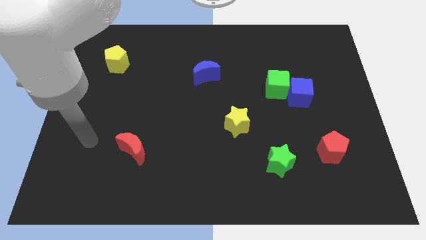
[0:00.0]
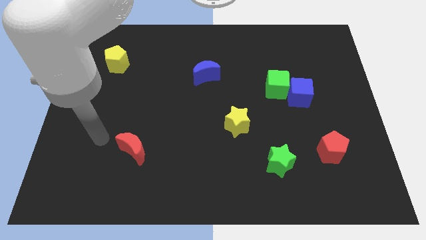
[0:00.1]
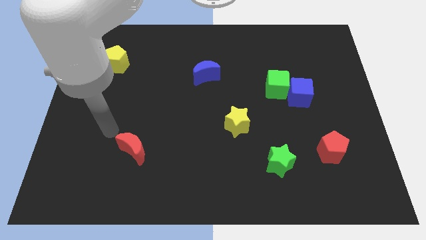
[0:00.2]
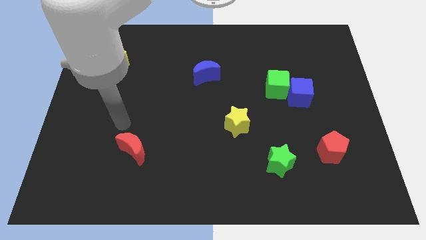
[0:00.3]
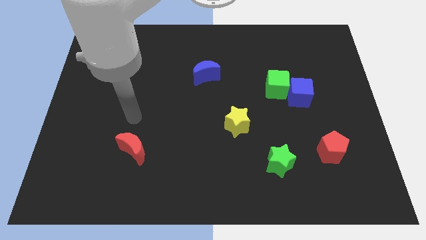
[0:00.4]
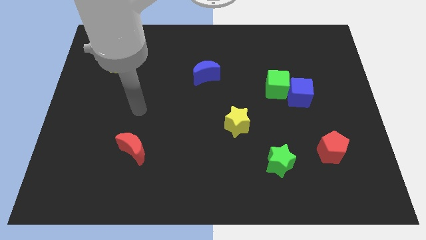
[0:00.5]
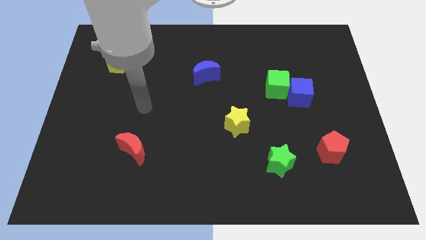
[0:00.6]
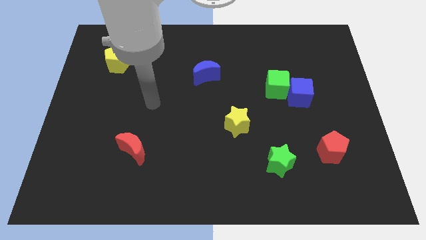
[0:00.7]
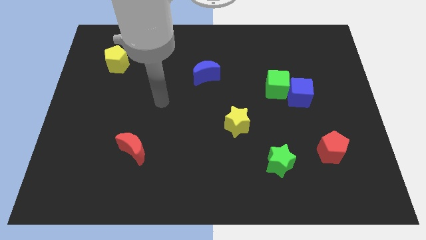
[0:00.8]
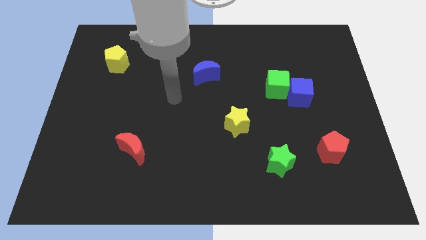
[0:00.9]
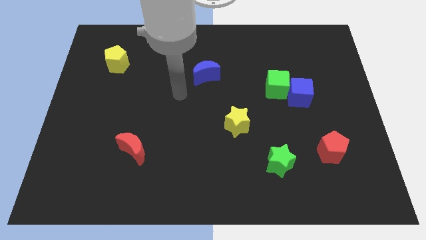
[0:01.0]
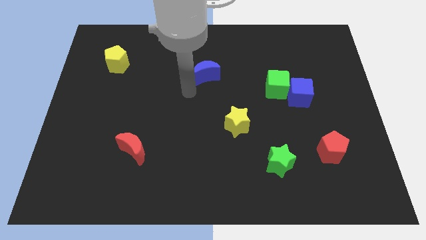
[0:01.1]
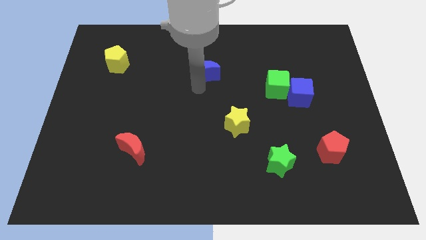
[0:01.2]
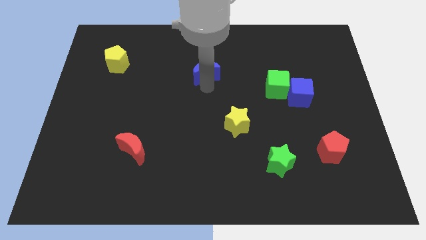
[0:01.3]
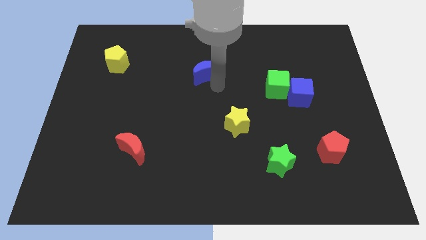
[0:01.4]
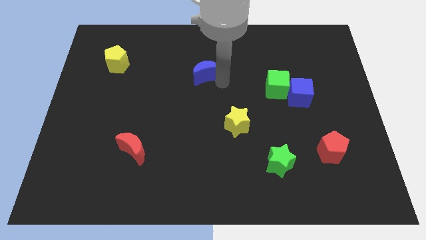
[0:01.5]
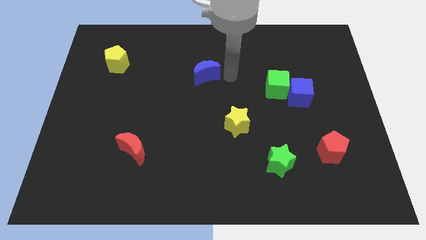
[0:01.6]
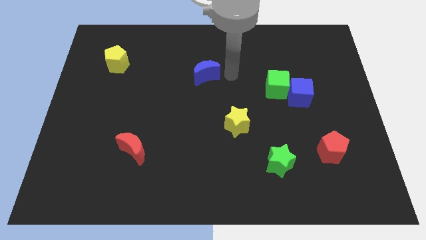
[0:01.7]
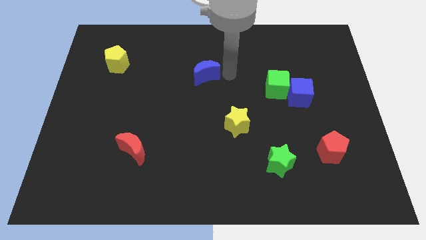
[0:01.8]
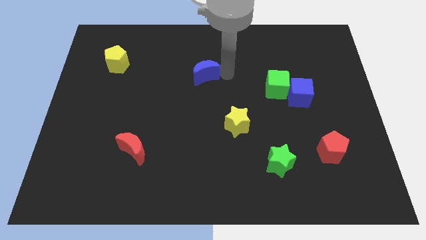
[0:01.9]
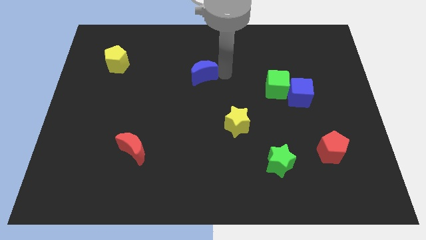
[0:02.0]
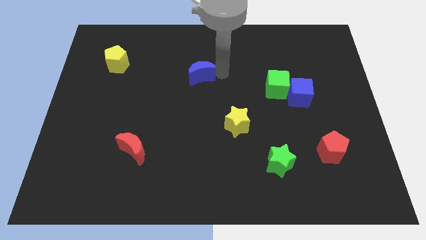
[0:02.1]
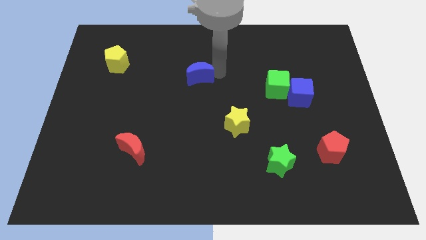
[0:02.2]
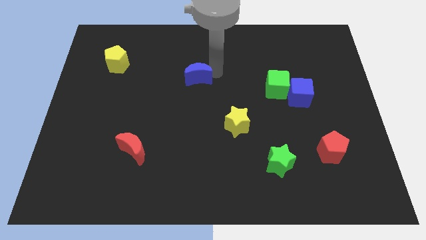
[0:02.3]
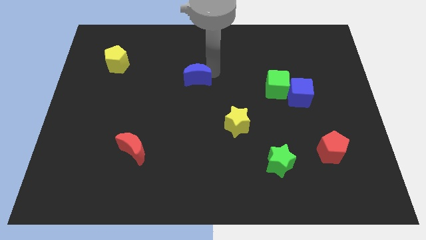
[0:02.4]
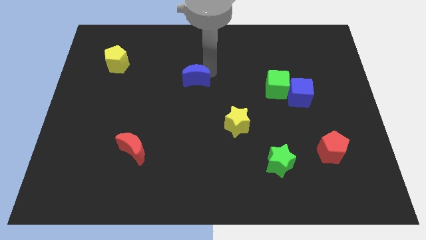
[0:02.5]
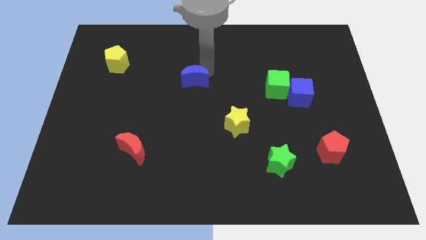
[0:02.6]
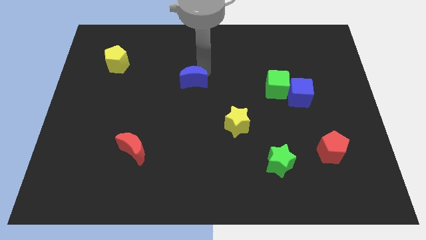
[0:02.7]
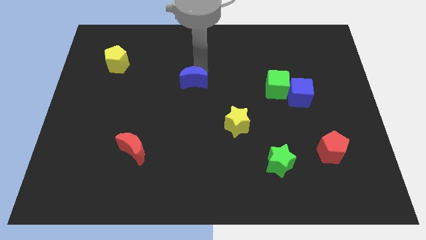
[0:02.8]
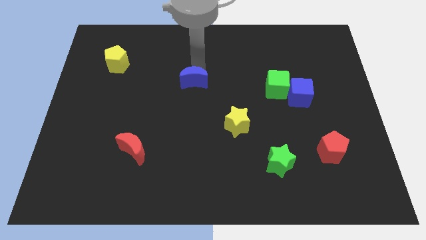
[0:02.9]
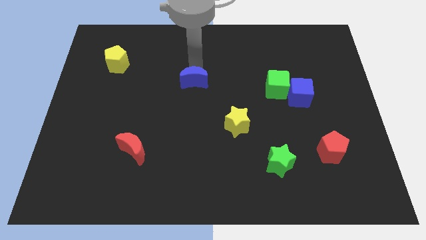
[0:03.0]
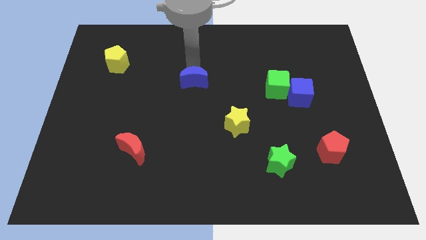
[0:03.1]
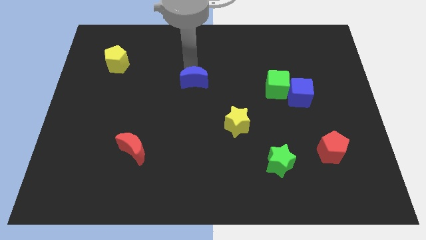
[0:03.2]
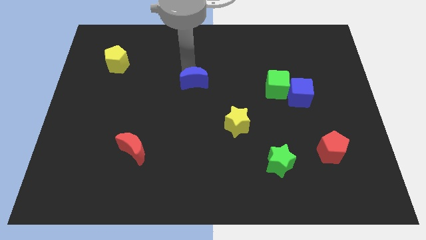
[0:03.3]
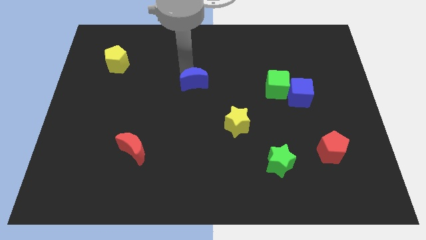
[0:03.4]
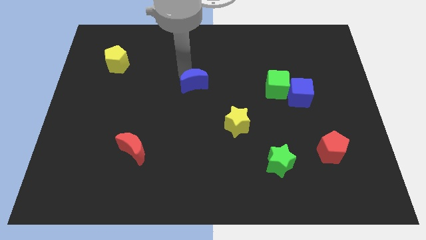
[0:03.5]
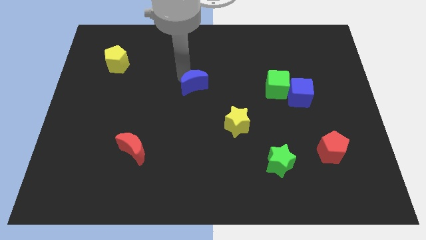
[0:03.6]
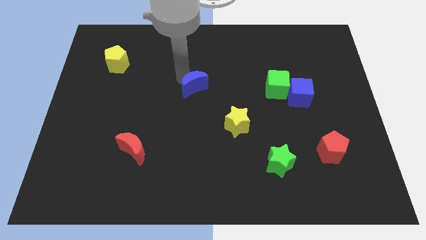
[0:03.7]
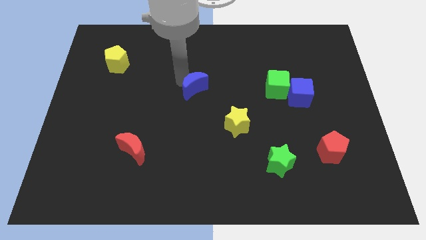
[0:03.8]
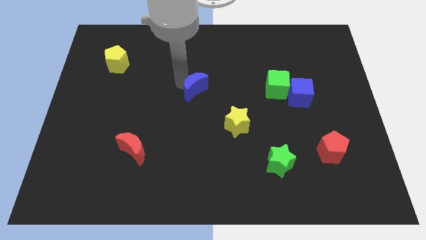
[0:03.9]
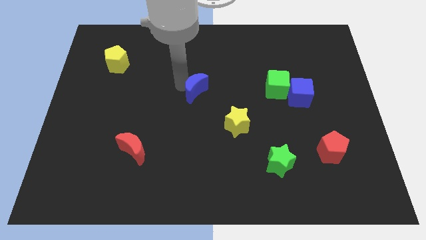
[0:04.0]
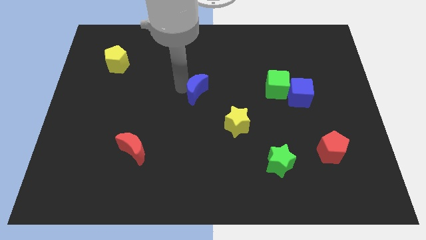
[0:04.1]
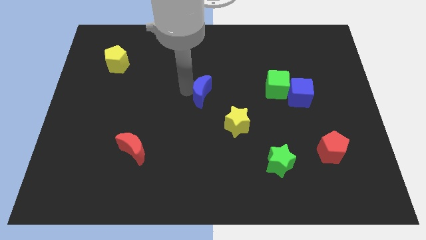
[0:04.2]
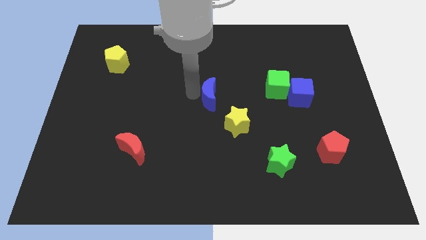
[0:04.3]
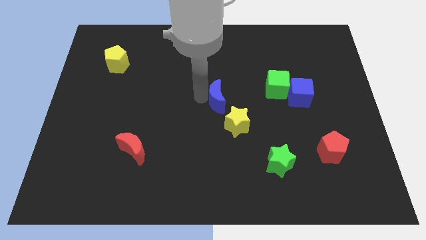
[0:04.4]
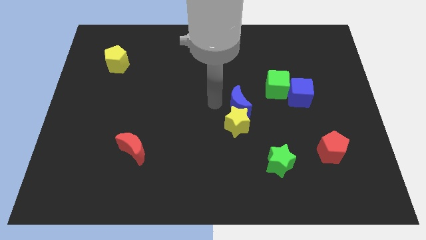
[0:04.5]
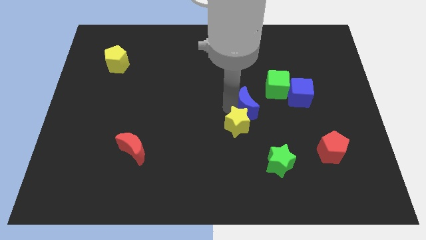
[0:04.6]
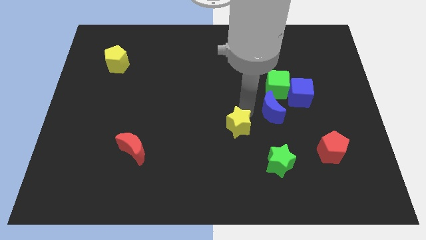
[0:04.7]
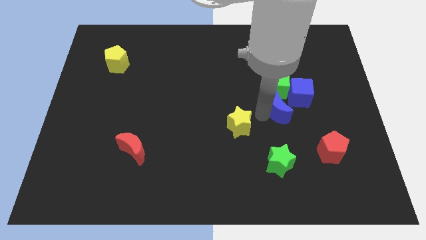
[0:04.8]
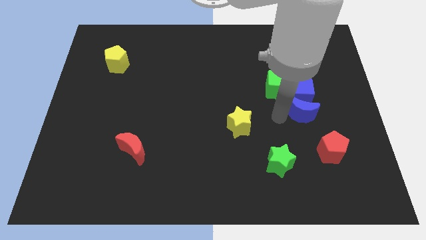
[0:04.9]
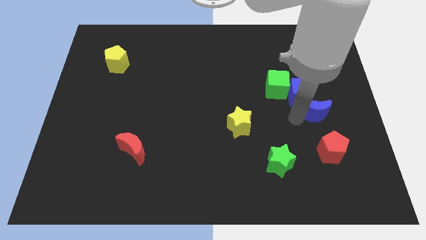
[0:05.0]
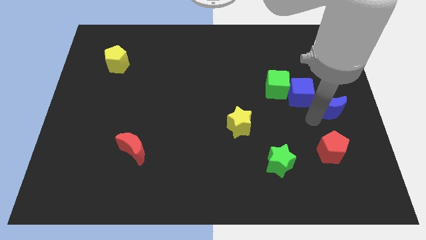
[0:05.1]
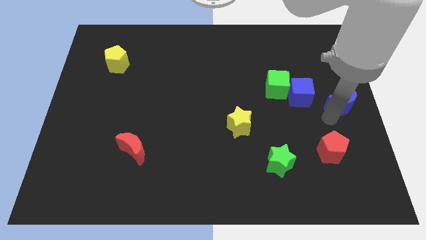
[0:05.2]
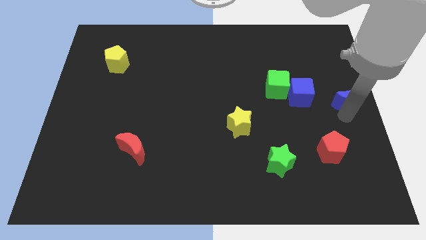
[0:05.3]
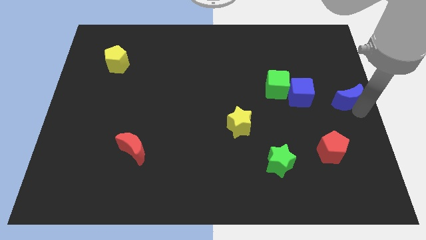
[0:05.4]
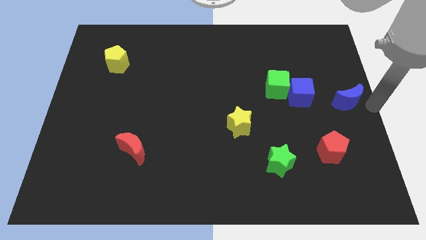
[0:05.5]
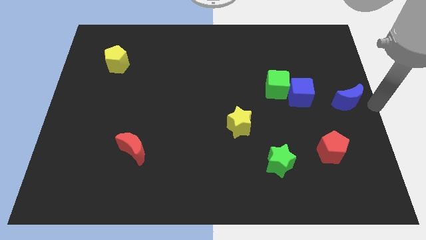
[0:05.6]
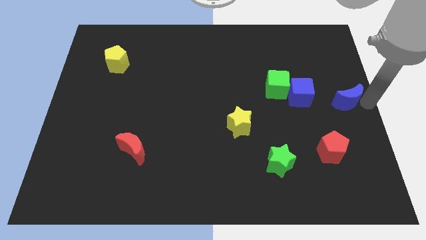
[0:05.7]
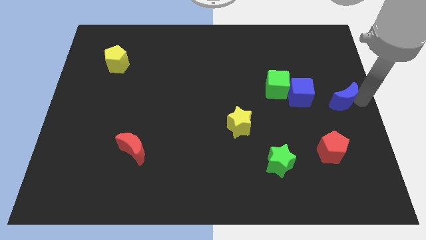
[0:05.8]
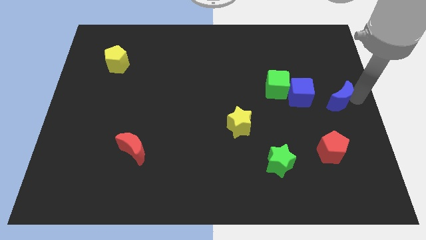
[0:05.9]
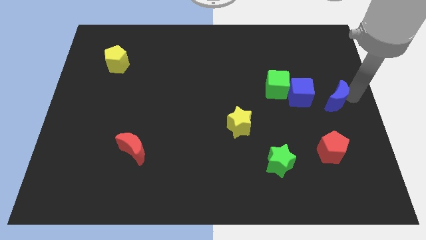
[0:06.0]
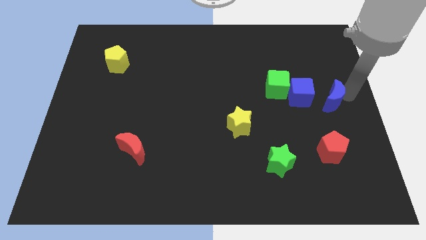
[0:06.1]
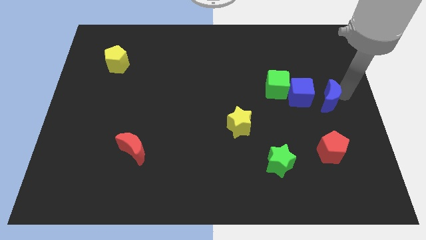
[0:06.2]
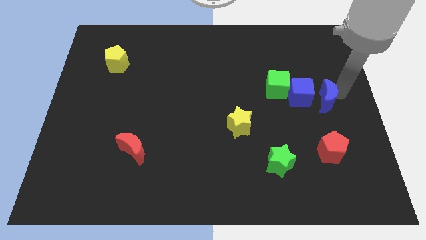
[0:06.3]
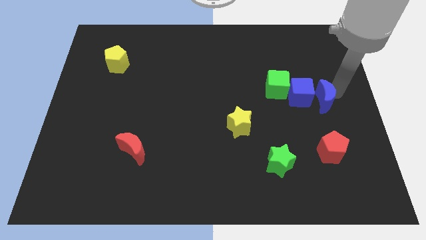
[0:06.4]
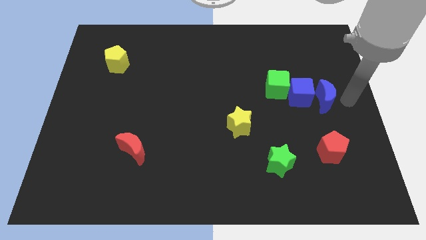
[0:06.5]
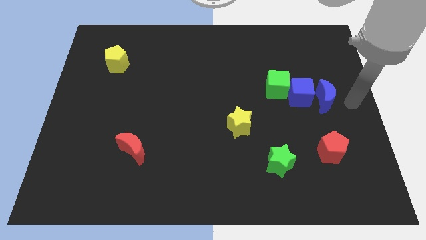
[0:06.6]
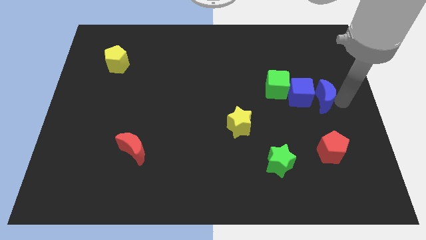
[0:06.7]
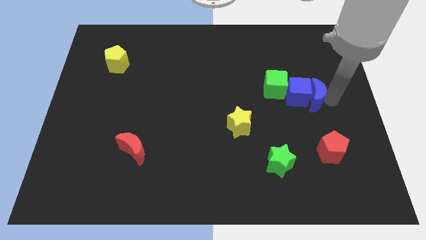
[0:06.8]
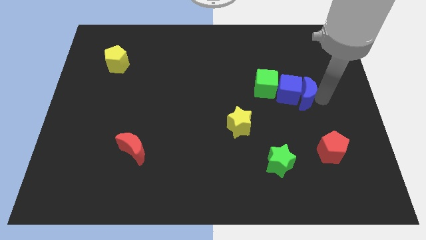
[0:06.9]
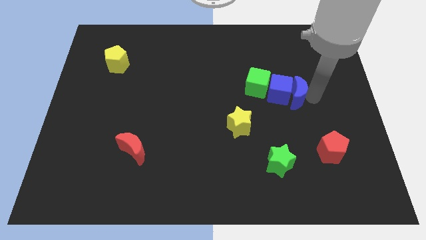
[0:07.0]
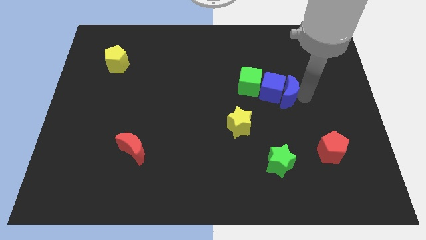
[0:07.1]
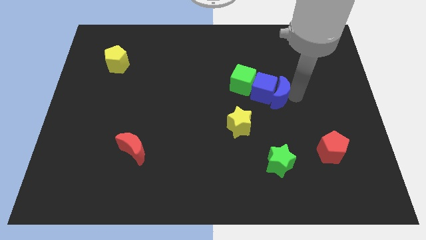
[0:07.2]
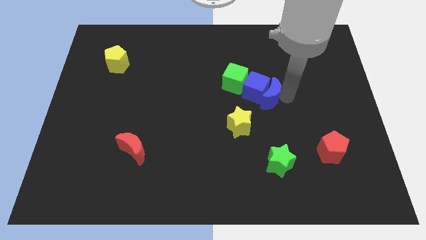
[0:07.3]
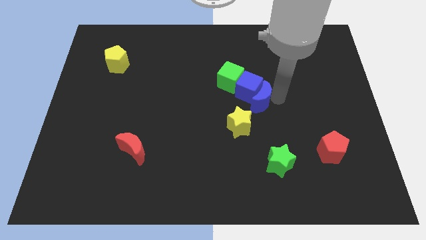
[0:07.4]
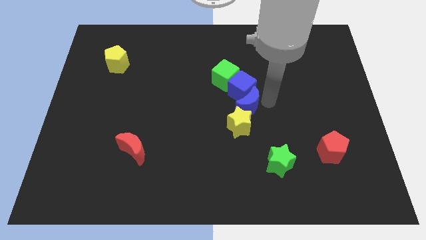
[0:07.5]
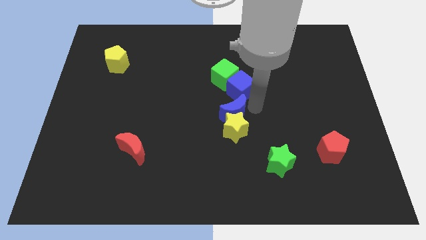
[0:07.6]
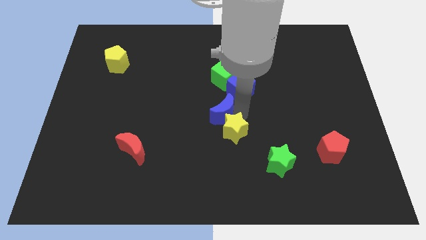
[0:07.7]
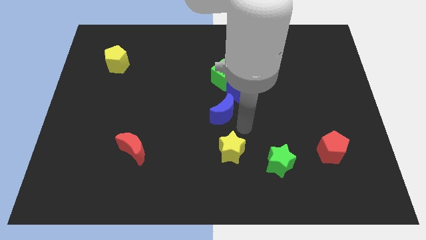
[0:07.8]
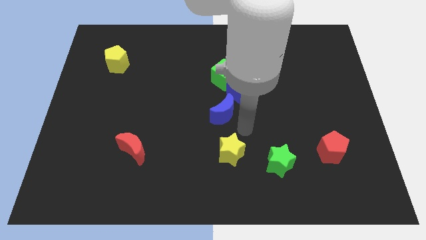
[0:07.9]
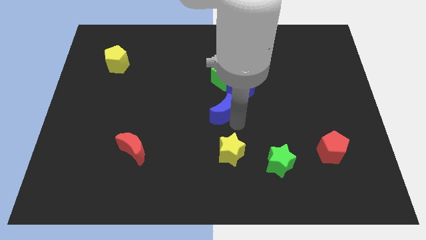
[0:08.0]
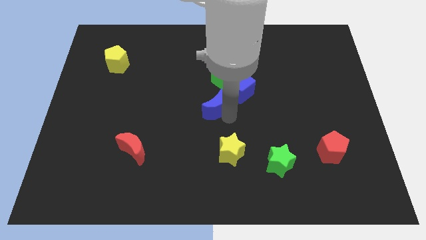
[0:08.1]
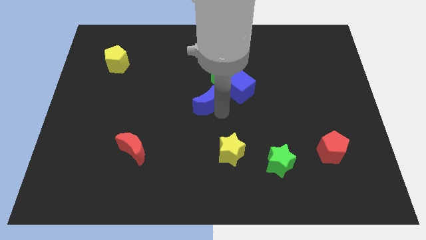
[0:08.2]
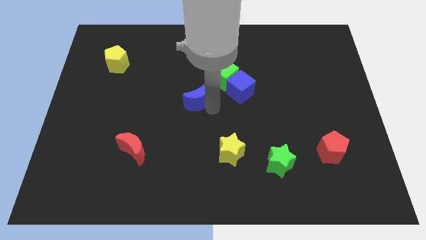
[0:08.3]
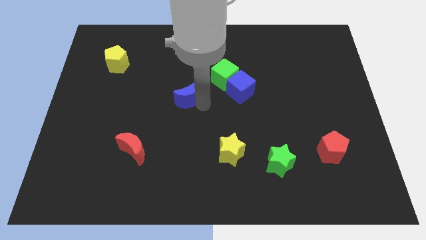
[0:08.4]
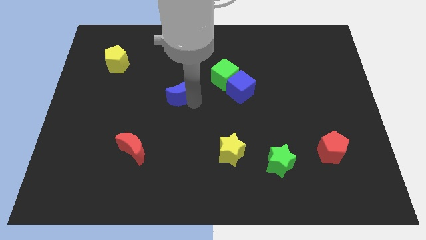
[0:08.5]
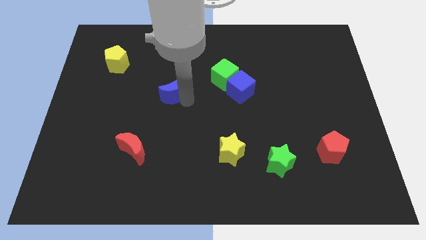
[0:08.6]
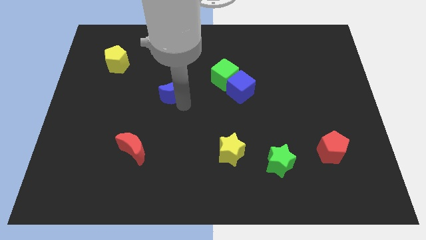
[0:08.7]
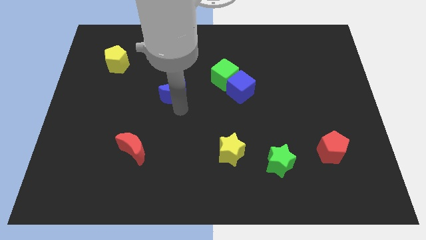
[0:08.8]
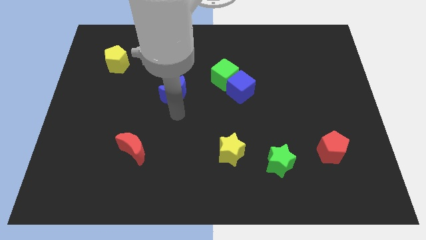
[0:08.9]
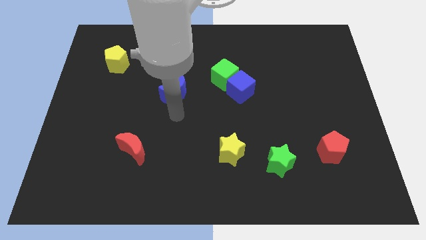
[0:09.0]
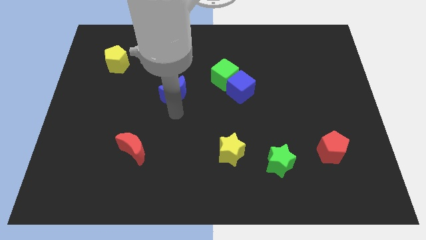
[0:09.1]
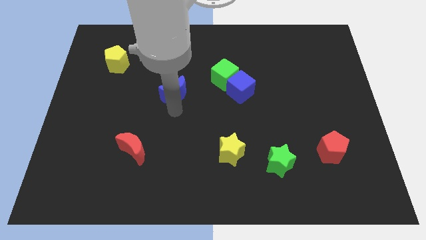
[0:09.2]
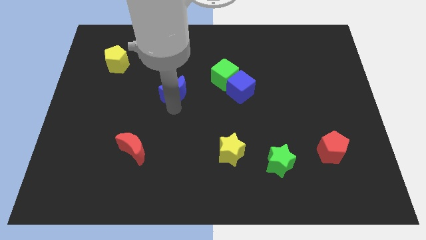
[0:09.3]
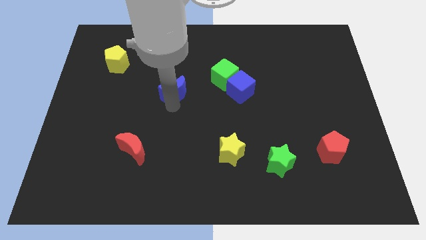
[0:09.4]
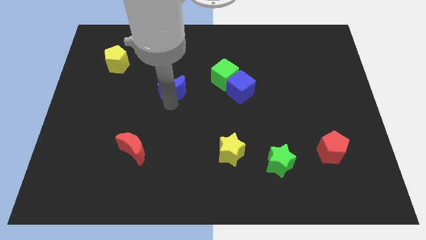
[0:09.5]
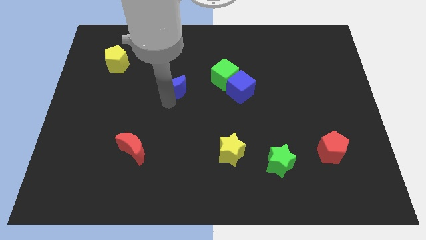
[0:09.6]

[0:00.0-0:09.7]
move the blue moon left a little
